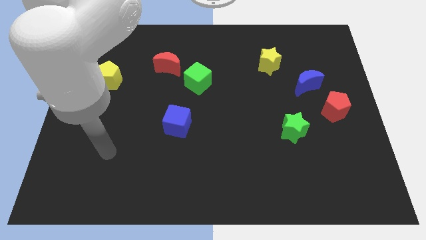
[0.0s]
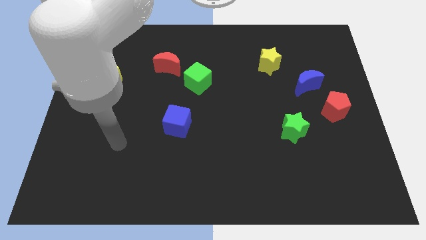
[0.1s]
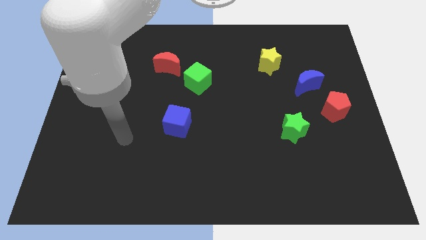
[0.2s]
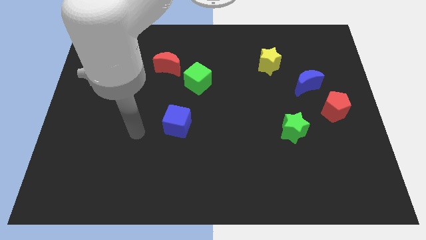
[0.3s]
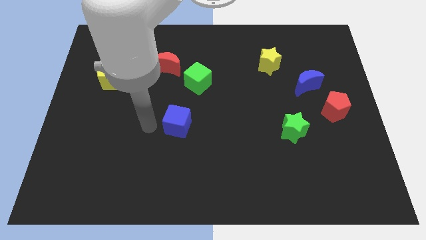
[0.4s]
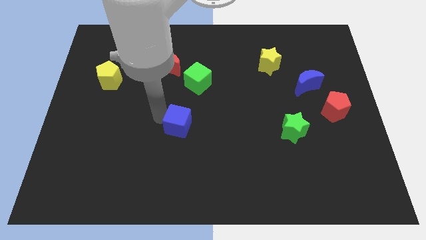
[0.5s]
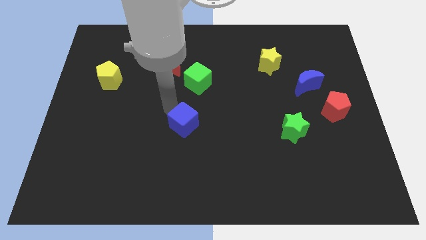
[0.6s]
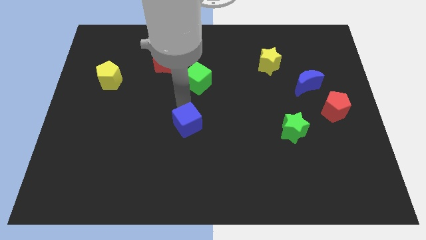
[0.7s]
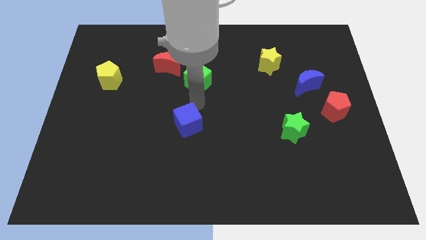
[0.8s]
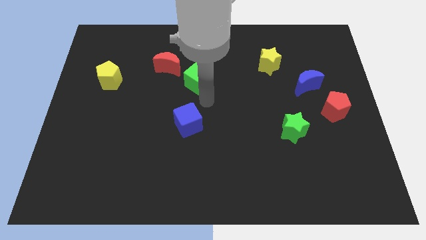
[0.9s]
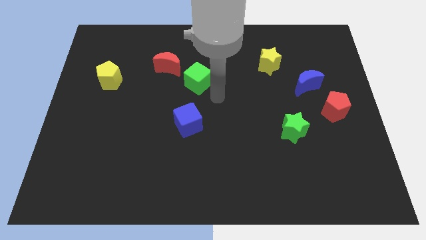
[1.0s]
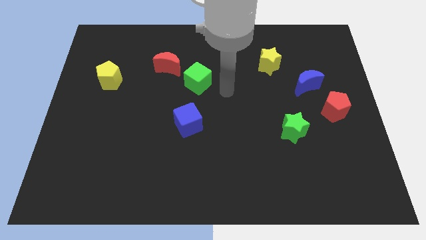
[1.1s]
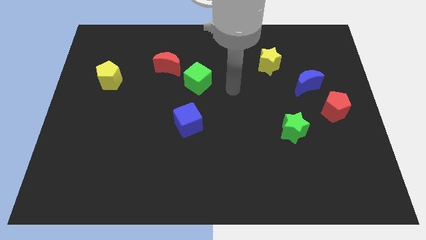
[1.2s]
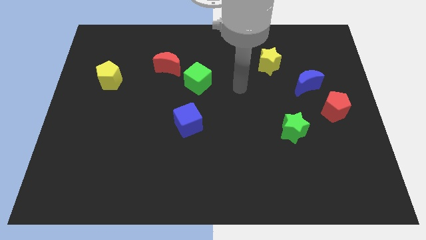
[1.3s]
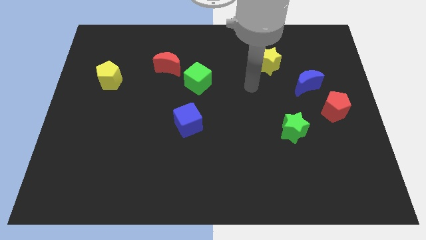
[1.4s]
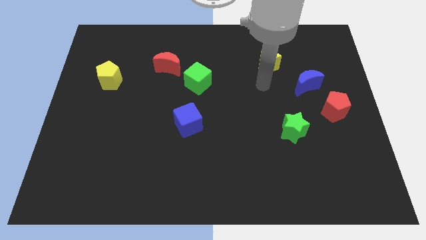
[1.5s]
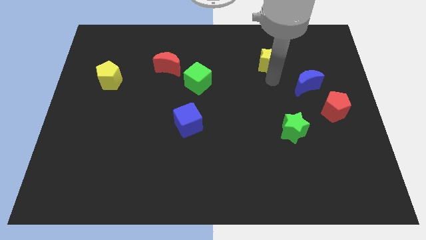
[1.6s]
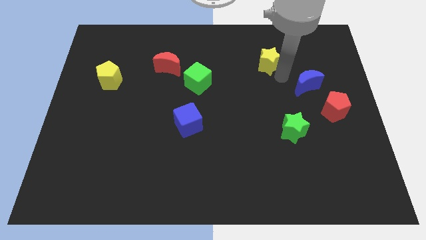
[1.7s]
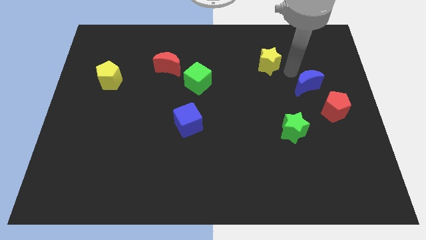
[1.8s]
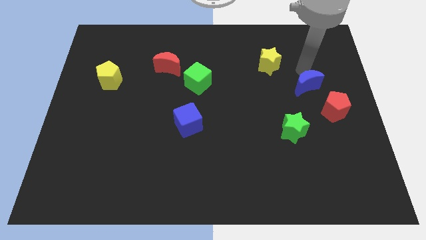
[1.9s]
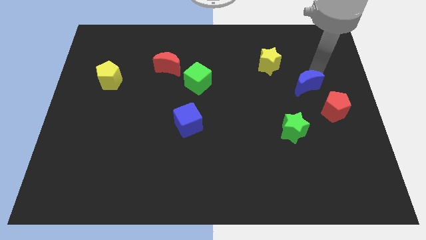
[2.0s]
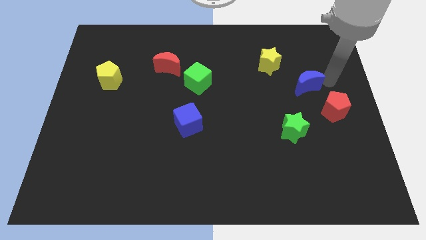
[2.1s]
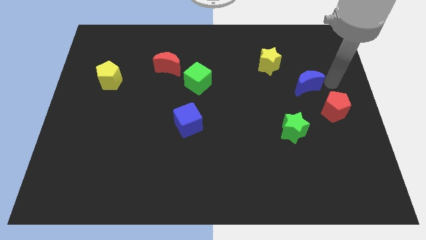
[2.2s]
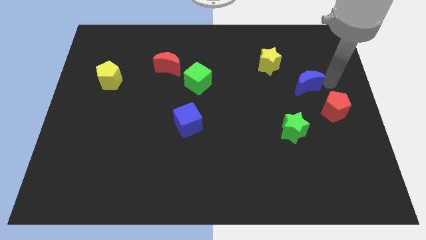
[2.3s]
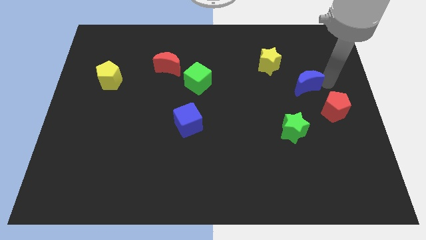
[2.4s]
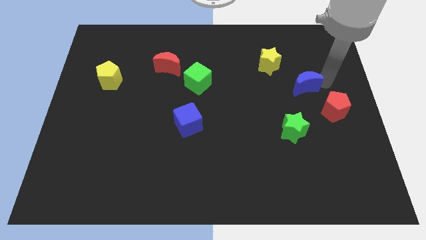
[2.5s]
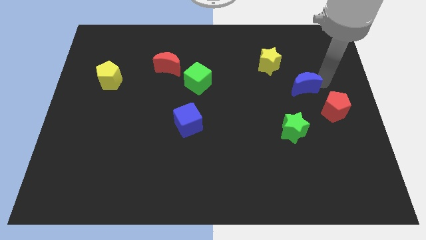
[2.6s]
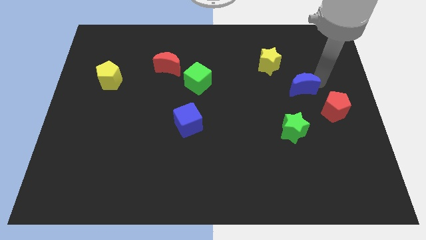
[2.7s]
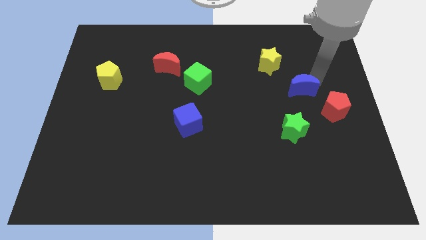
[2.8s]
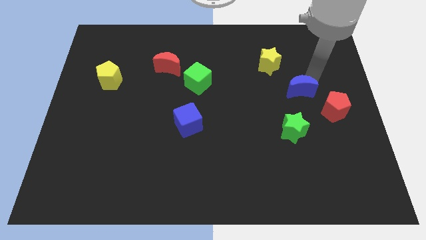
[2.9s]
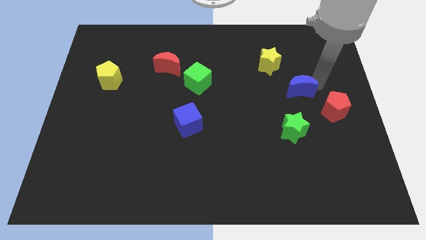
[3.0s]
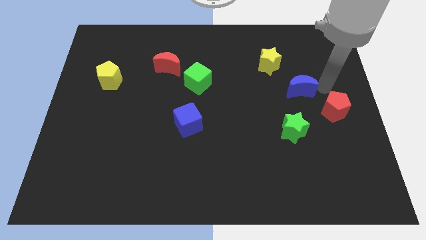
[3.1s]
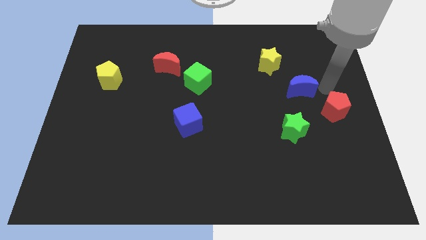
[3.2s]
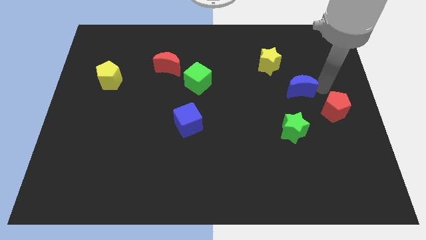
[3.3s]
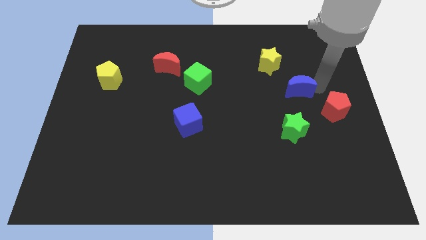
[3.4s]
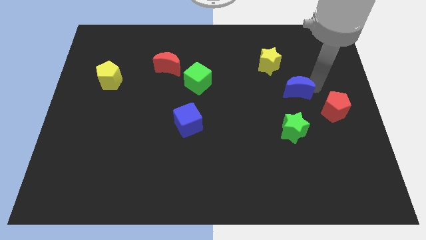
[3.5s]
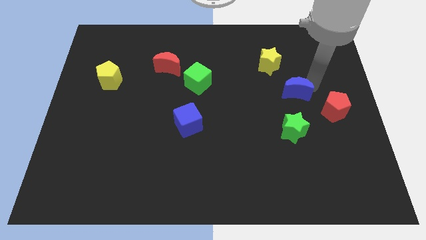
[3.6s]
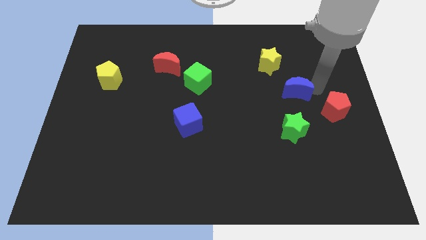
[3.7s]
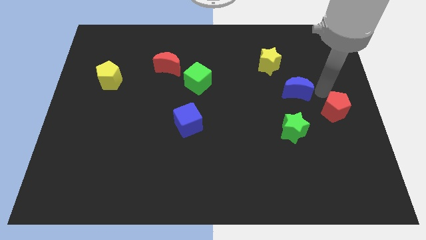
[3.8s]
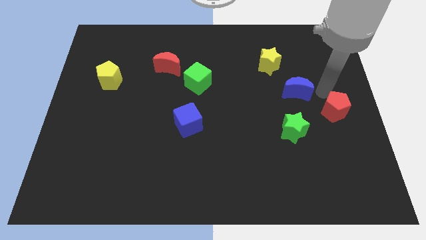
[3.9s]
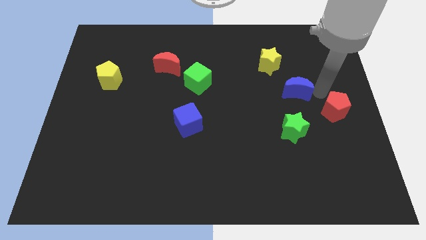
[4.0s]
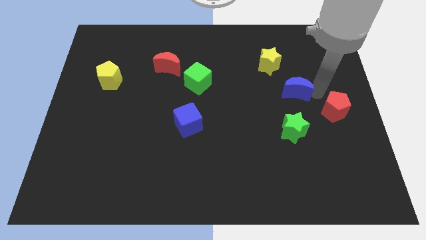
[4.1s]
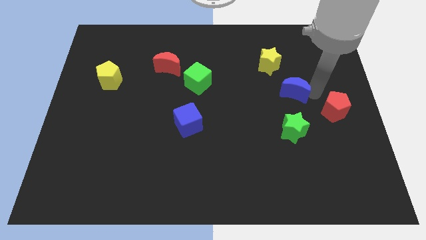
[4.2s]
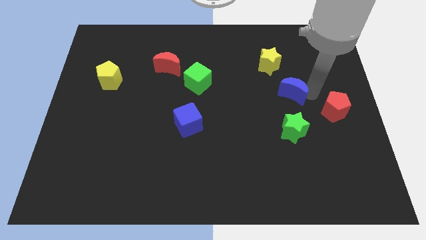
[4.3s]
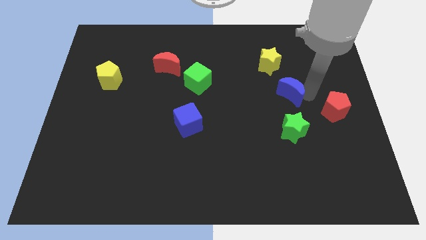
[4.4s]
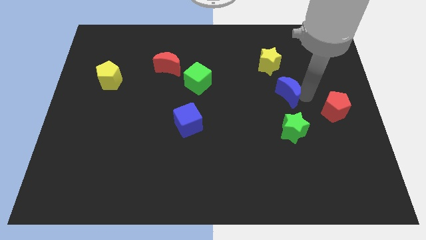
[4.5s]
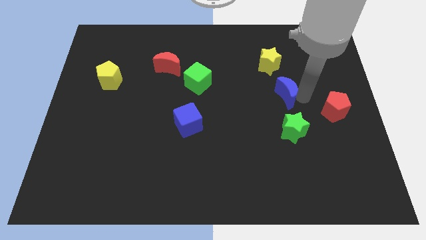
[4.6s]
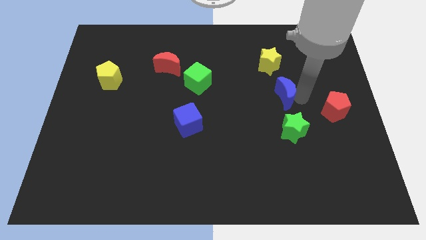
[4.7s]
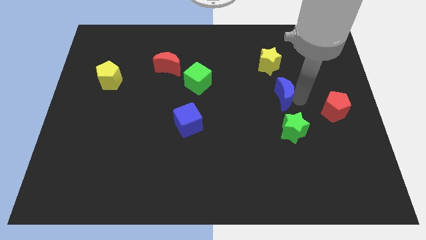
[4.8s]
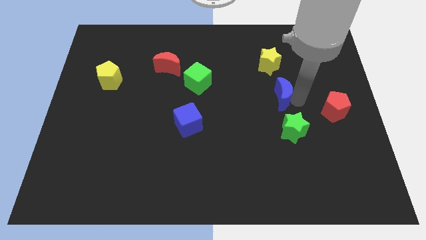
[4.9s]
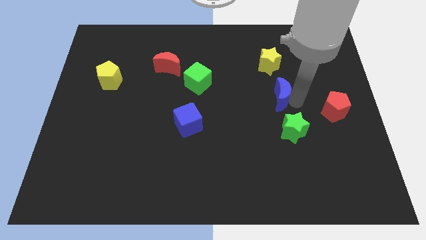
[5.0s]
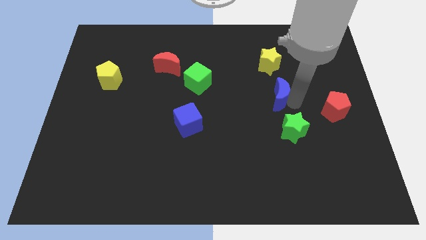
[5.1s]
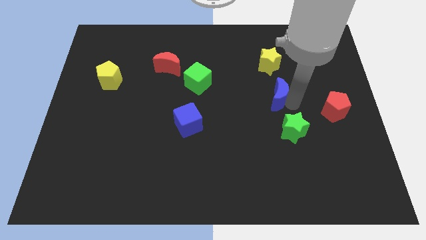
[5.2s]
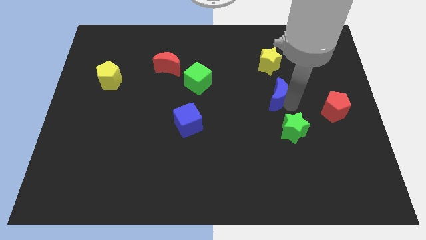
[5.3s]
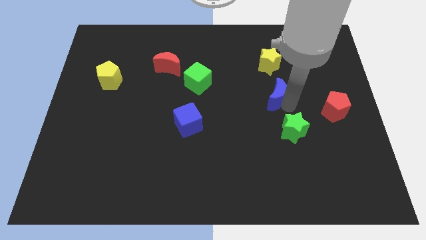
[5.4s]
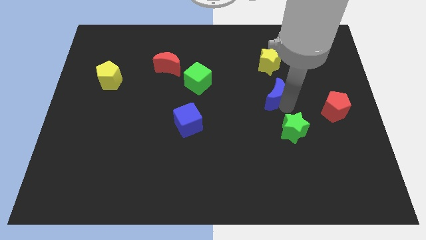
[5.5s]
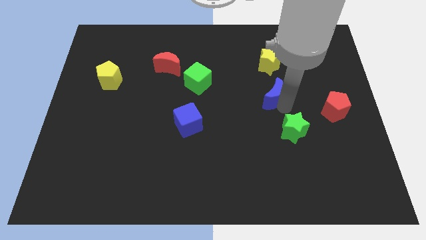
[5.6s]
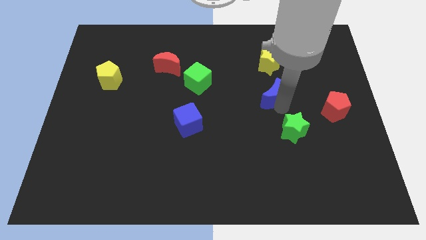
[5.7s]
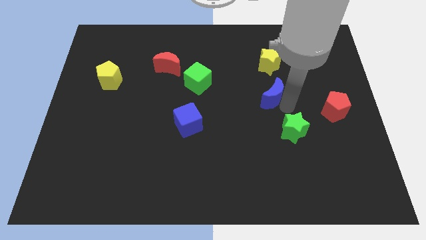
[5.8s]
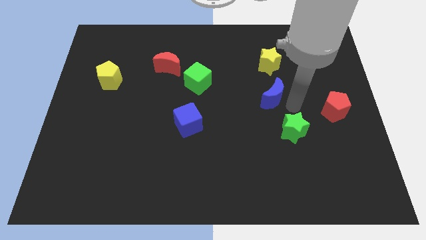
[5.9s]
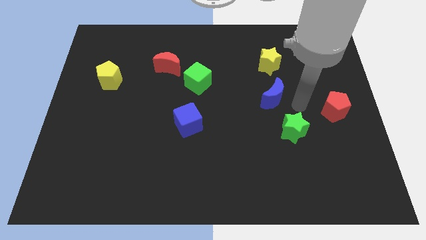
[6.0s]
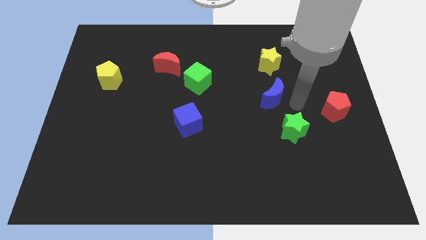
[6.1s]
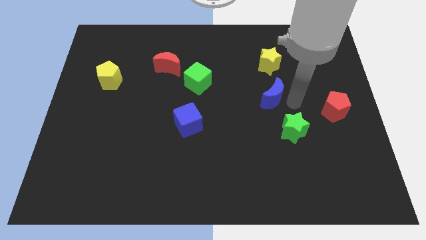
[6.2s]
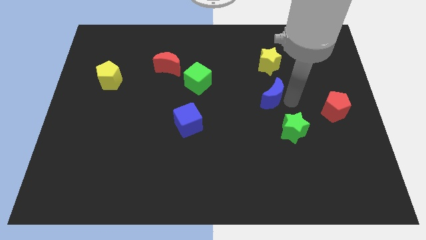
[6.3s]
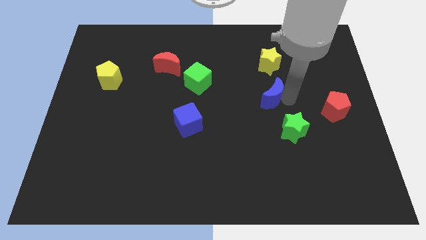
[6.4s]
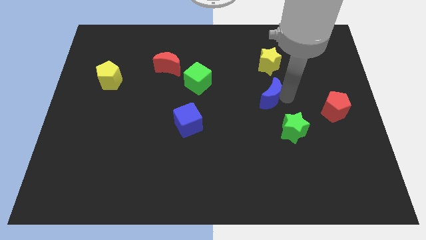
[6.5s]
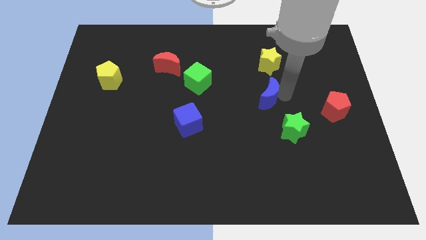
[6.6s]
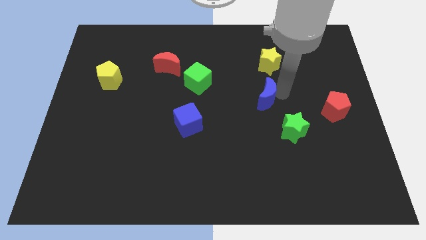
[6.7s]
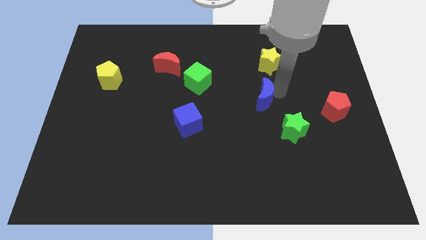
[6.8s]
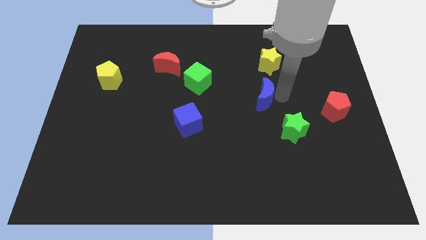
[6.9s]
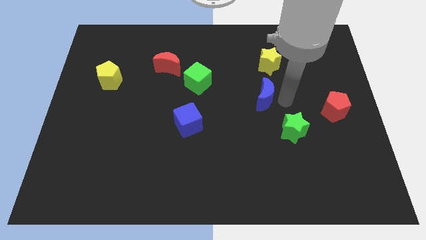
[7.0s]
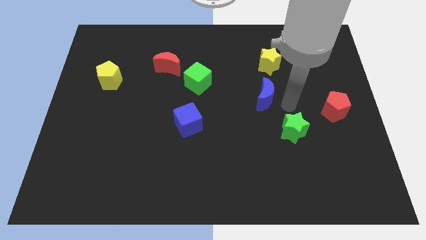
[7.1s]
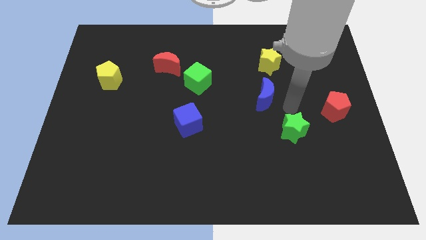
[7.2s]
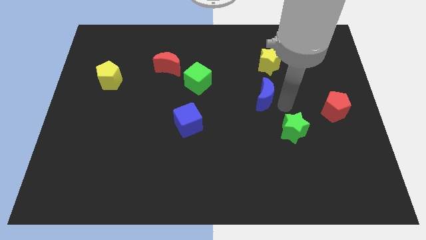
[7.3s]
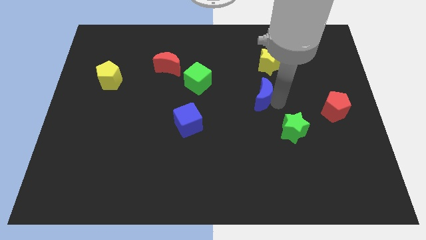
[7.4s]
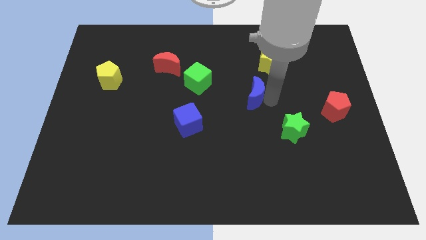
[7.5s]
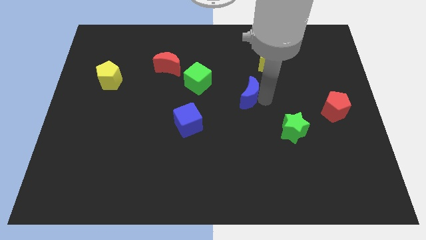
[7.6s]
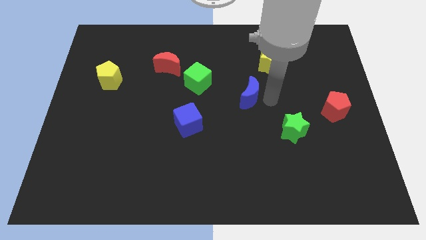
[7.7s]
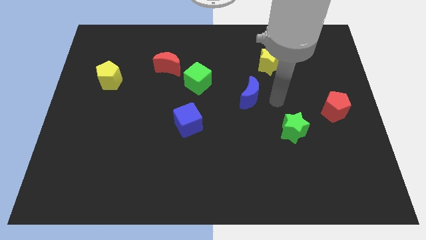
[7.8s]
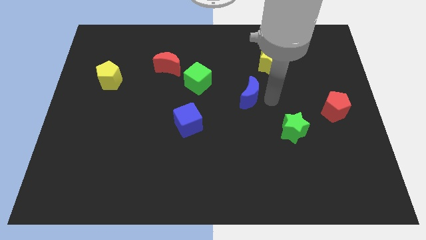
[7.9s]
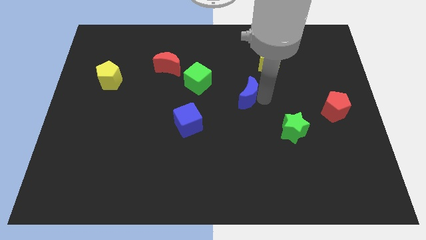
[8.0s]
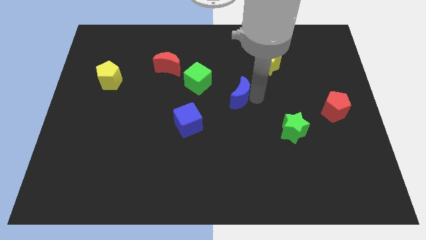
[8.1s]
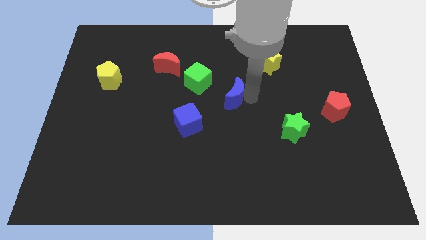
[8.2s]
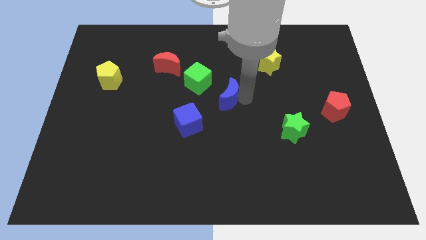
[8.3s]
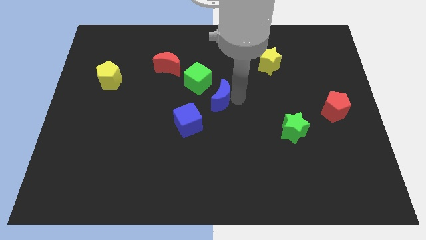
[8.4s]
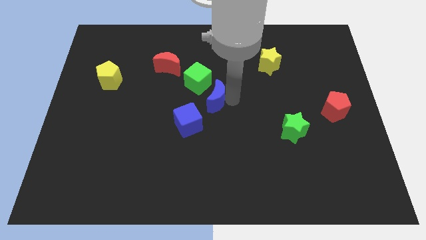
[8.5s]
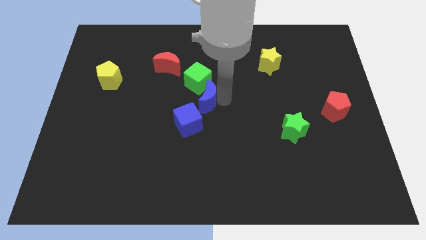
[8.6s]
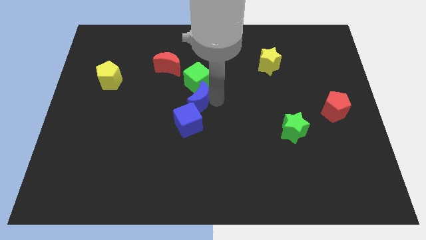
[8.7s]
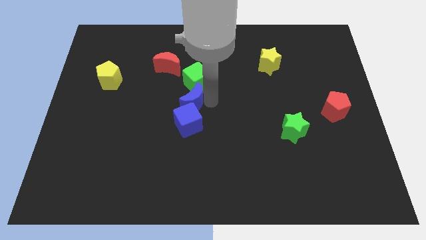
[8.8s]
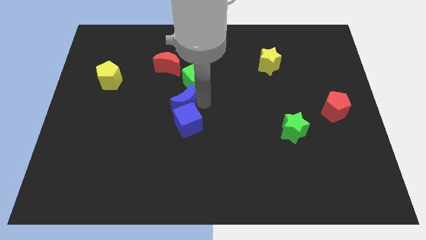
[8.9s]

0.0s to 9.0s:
push the blue moon to the bottom of the red moon
